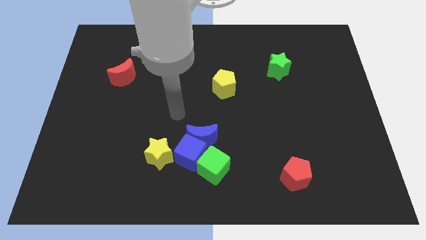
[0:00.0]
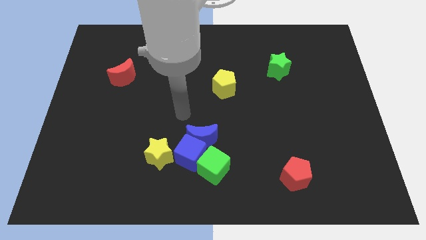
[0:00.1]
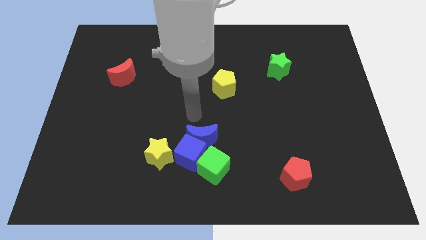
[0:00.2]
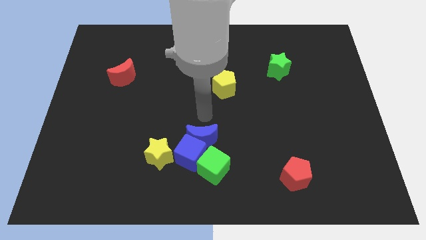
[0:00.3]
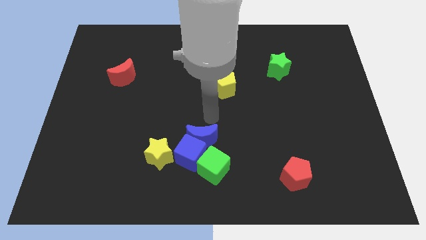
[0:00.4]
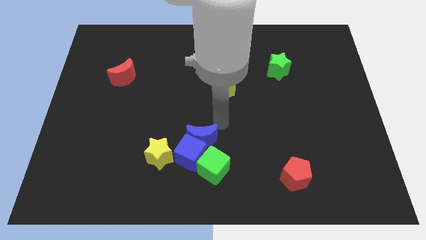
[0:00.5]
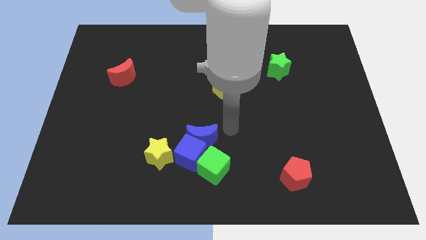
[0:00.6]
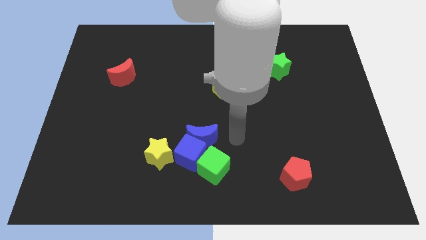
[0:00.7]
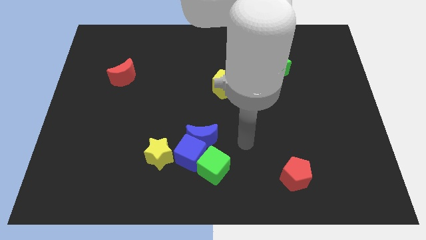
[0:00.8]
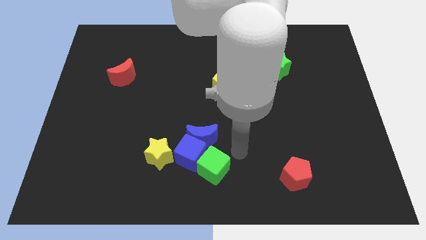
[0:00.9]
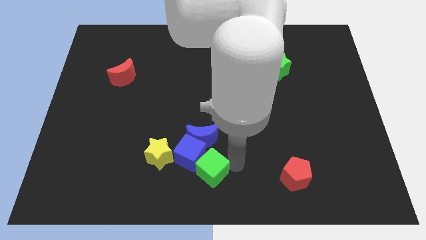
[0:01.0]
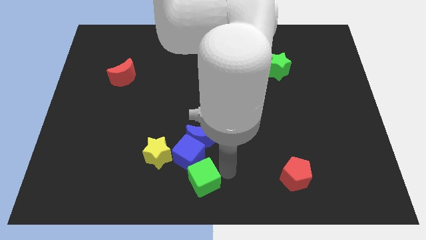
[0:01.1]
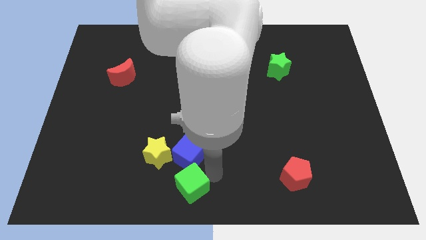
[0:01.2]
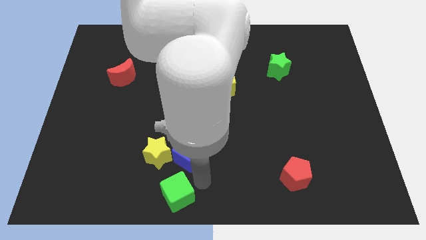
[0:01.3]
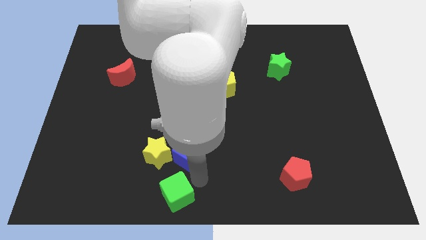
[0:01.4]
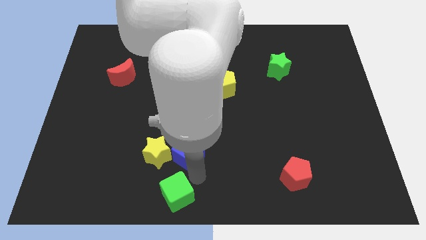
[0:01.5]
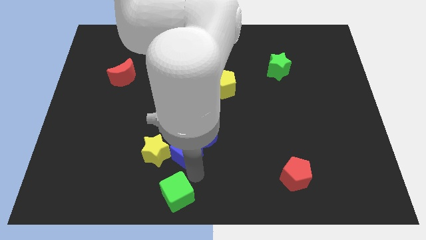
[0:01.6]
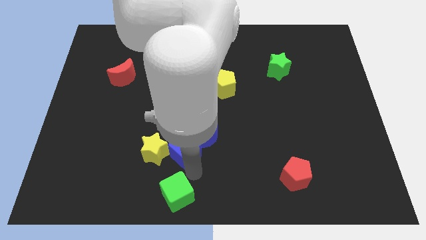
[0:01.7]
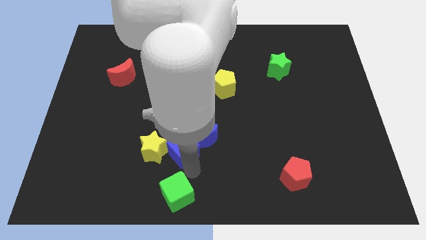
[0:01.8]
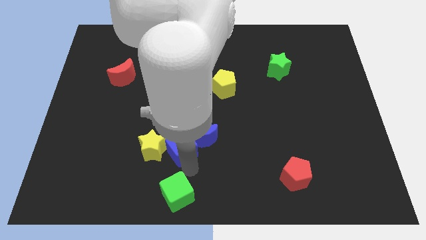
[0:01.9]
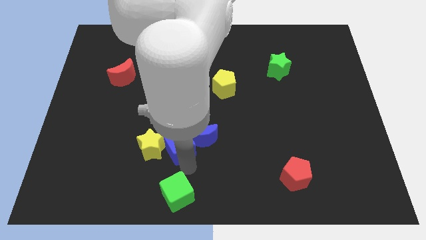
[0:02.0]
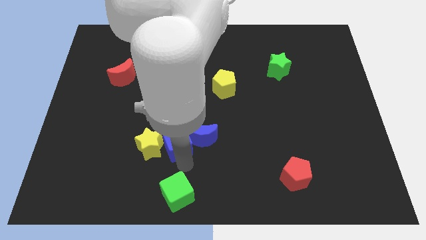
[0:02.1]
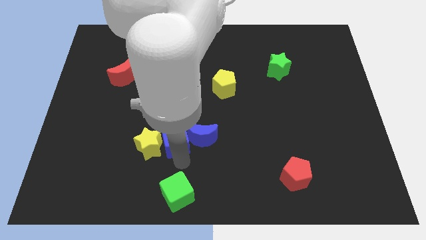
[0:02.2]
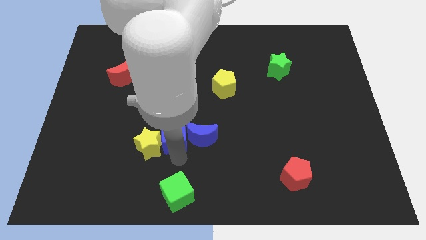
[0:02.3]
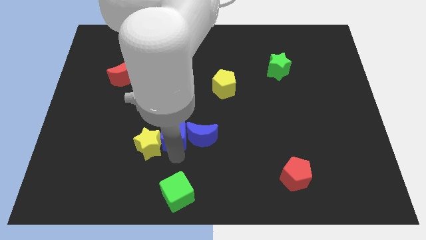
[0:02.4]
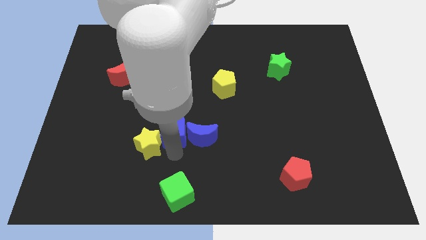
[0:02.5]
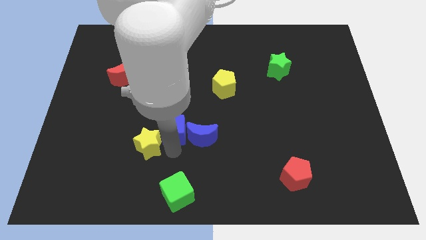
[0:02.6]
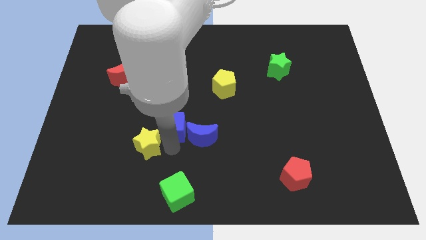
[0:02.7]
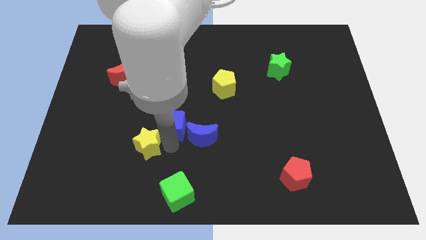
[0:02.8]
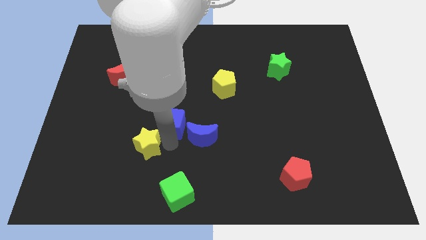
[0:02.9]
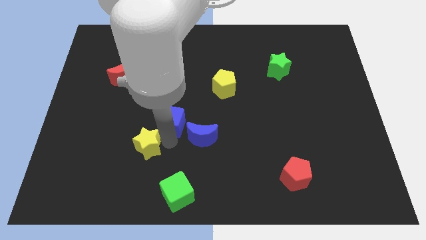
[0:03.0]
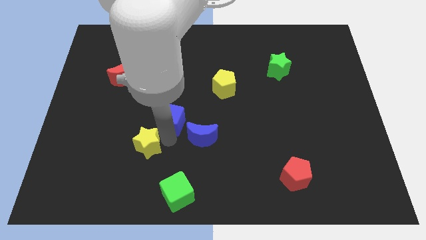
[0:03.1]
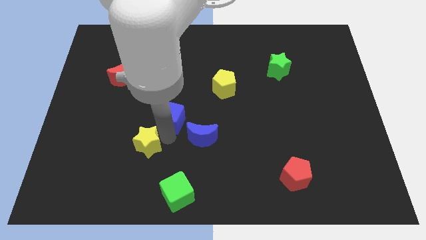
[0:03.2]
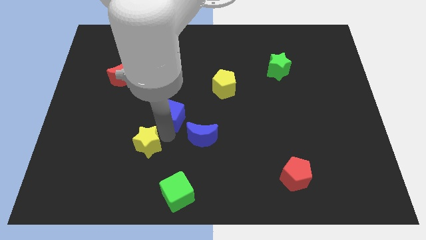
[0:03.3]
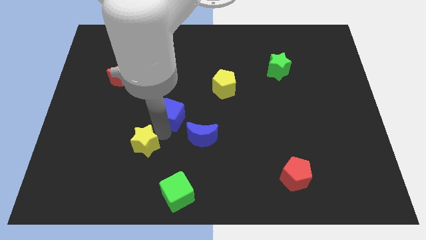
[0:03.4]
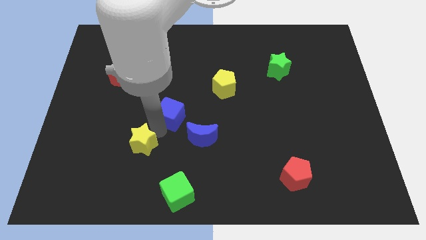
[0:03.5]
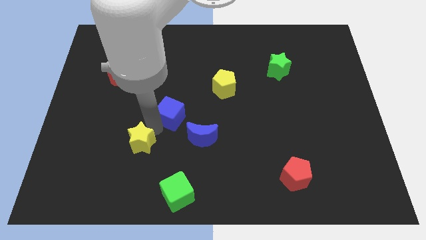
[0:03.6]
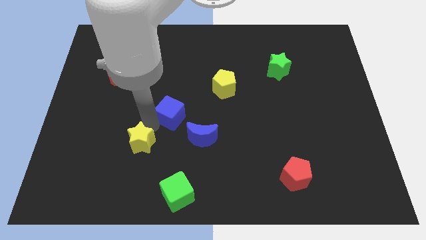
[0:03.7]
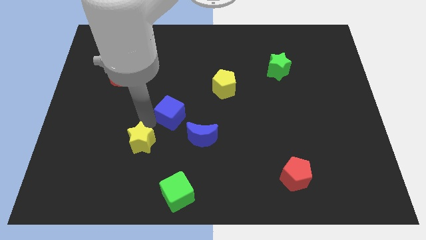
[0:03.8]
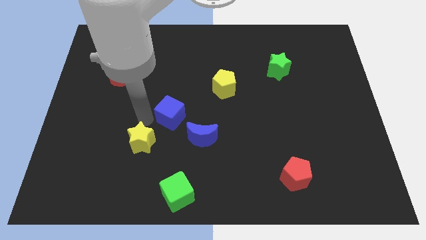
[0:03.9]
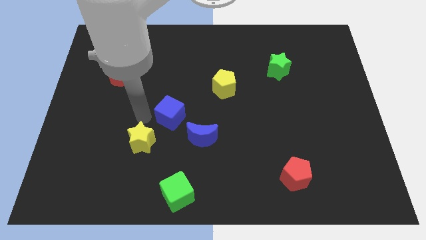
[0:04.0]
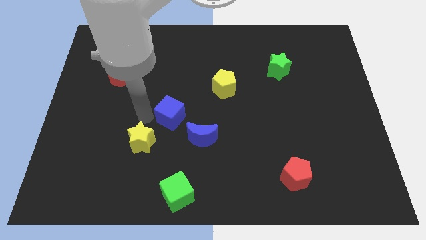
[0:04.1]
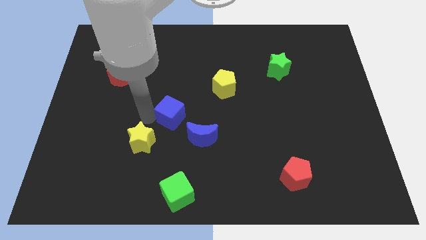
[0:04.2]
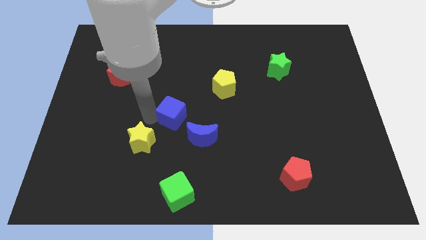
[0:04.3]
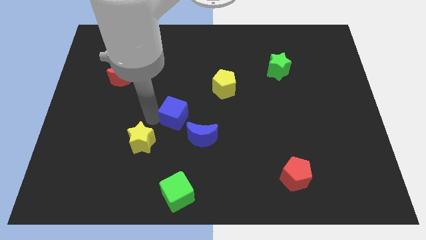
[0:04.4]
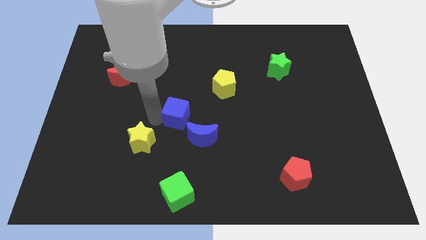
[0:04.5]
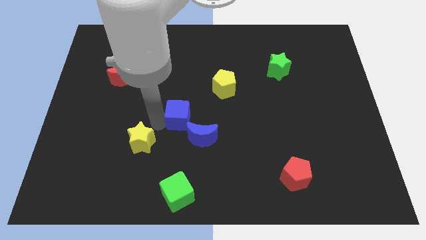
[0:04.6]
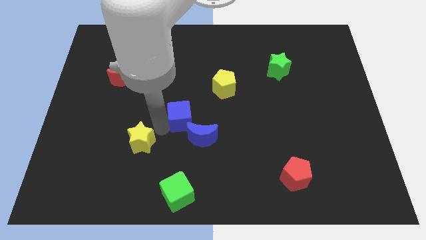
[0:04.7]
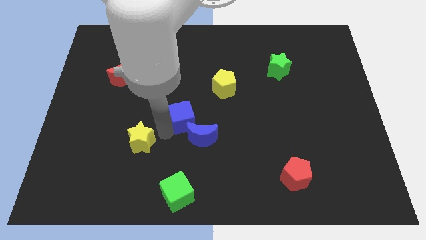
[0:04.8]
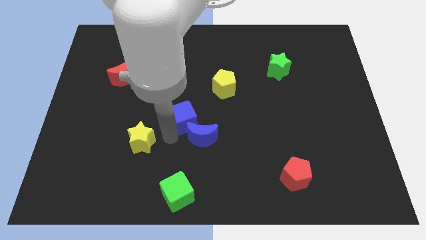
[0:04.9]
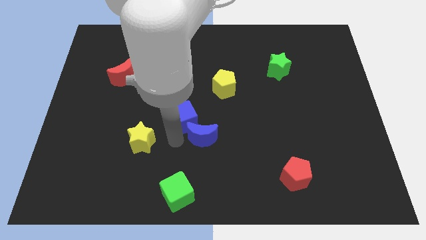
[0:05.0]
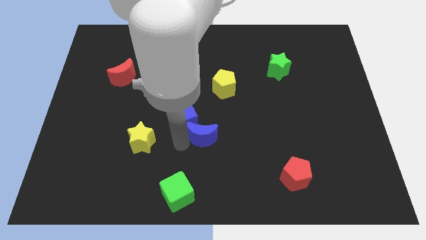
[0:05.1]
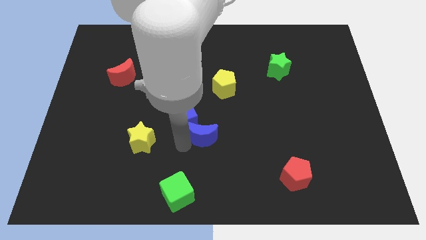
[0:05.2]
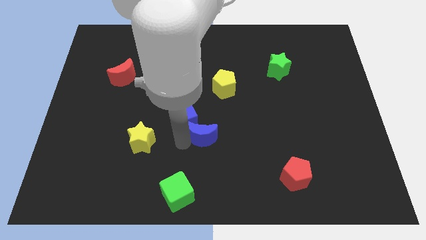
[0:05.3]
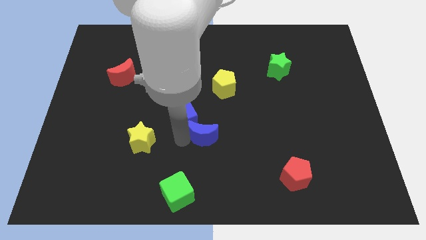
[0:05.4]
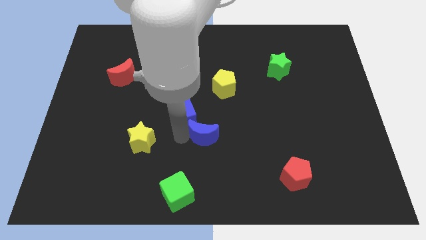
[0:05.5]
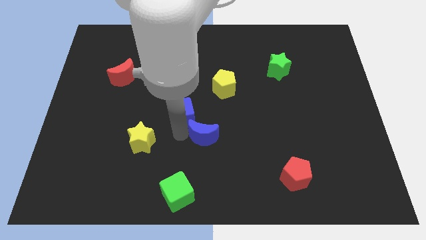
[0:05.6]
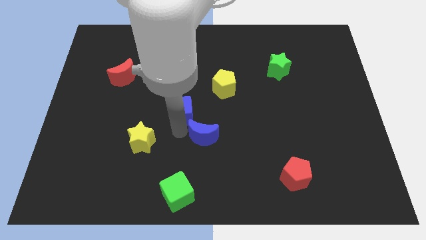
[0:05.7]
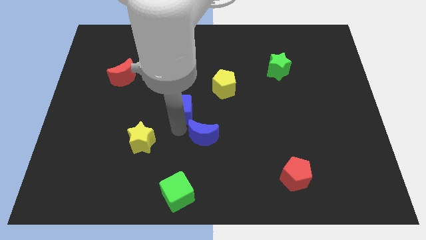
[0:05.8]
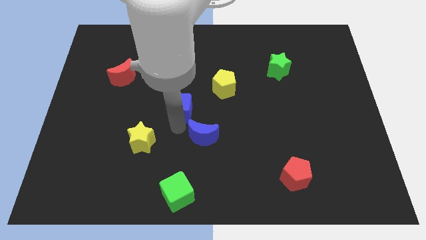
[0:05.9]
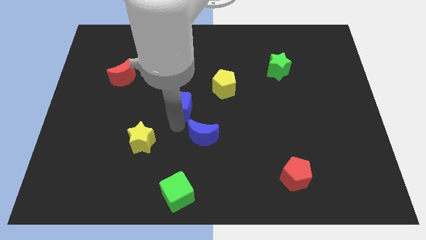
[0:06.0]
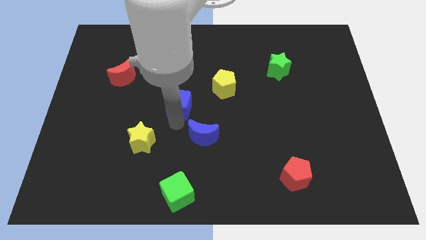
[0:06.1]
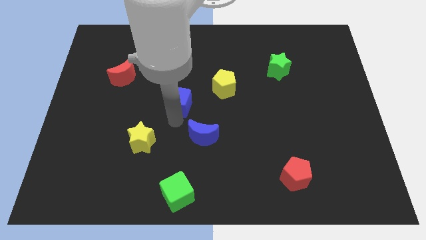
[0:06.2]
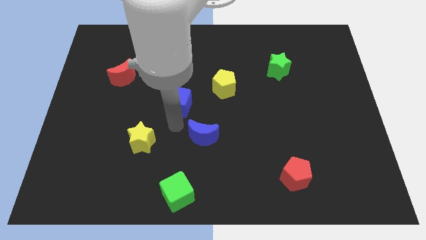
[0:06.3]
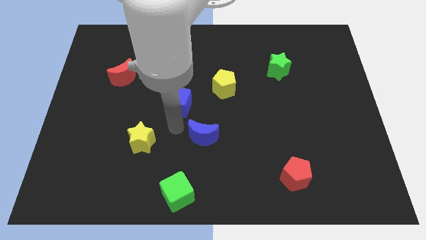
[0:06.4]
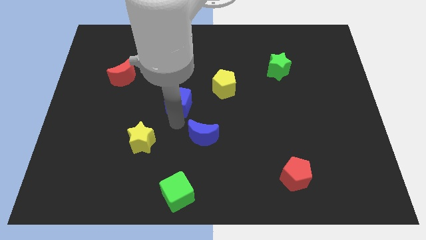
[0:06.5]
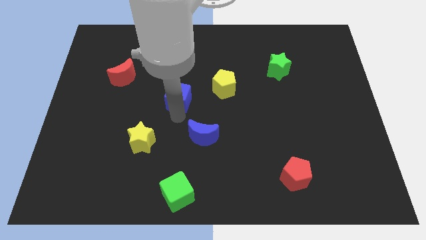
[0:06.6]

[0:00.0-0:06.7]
put the blue cube left of the yellow pentagon

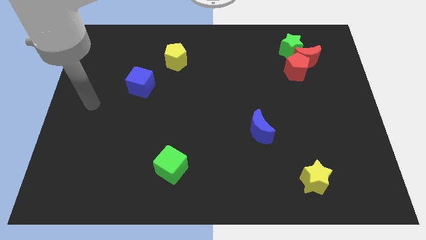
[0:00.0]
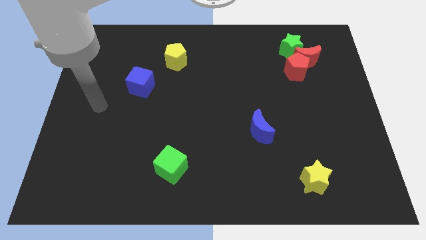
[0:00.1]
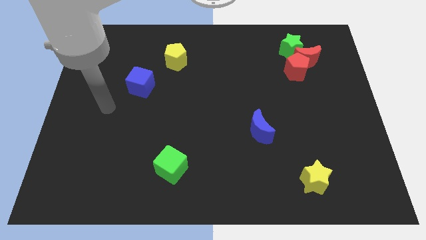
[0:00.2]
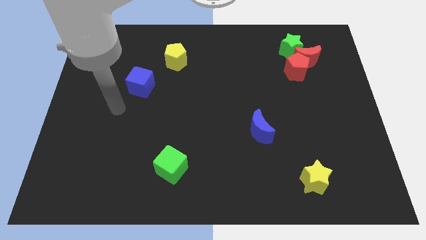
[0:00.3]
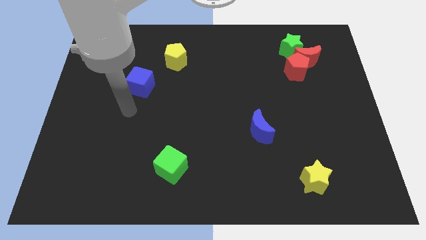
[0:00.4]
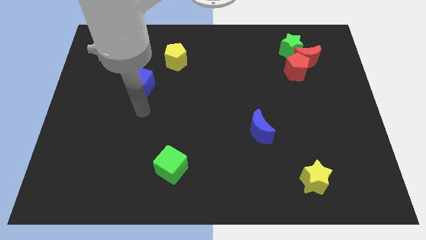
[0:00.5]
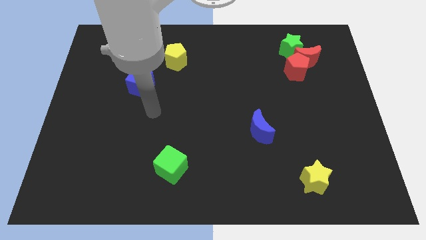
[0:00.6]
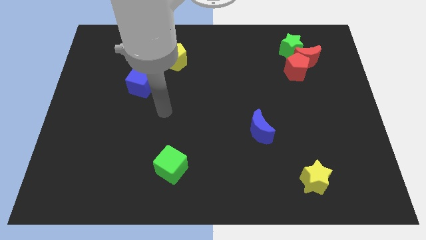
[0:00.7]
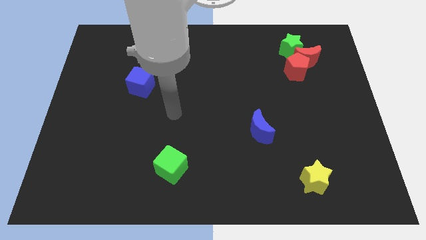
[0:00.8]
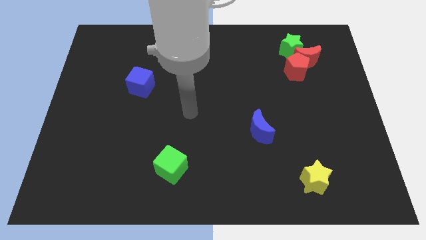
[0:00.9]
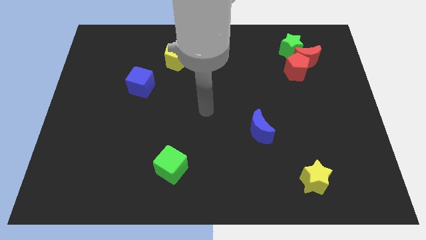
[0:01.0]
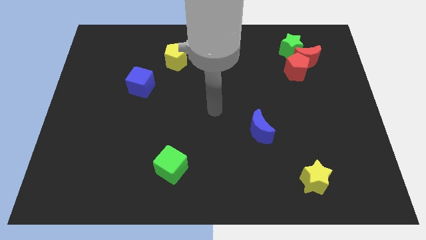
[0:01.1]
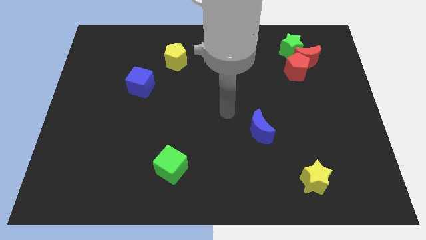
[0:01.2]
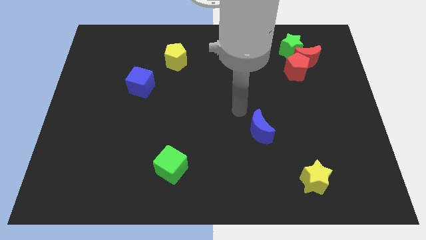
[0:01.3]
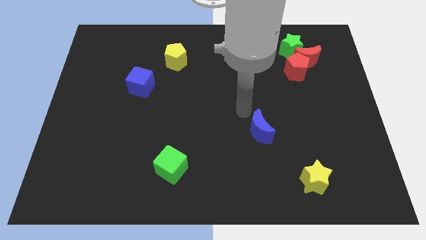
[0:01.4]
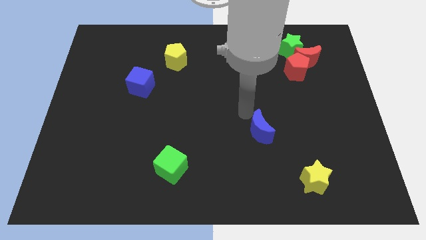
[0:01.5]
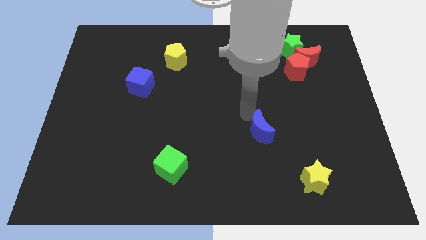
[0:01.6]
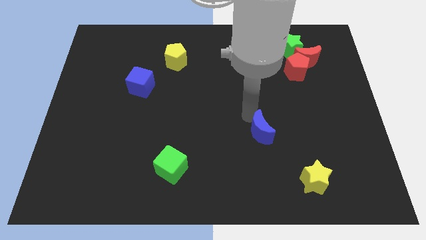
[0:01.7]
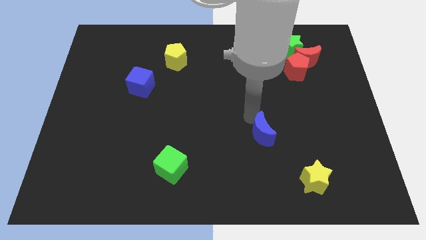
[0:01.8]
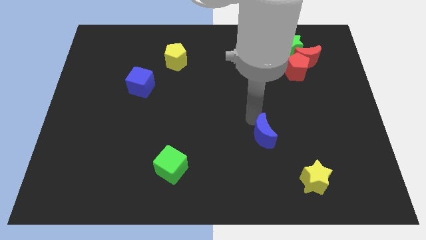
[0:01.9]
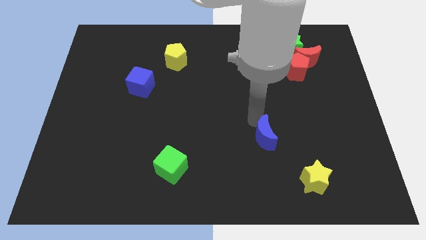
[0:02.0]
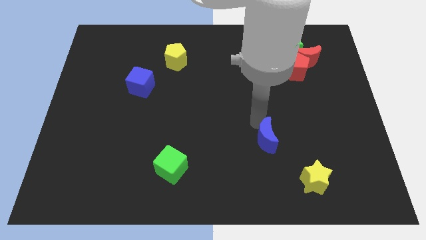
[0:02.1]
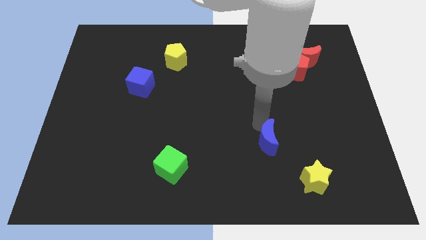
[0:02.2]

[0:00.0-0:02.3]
push the blue moon diagonally up and to the left of the yellow star
